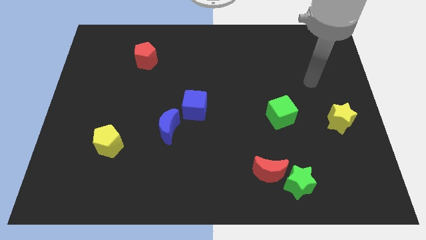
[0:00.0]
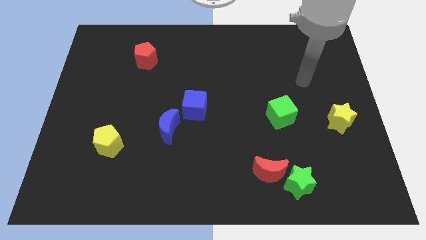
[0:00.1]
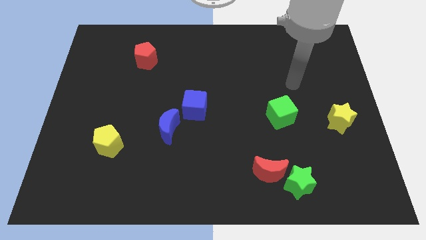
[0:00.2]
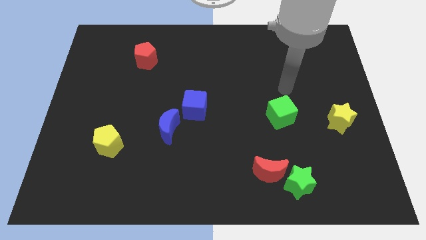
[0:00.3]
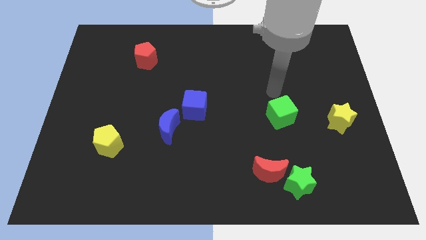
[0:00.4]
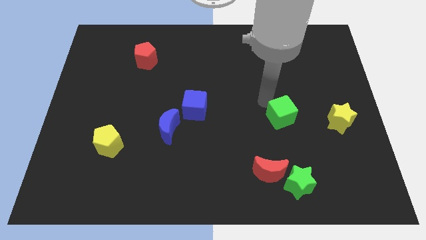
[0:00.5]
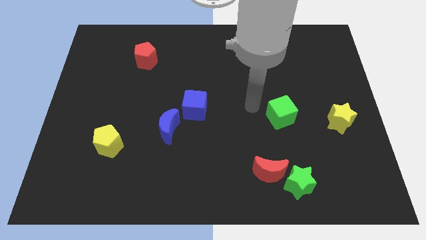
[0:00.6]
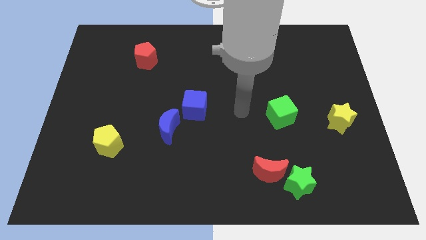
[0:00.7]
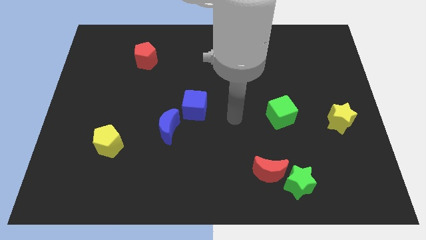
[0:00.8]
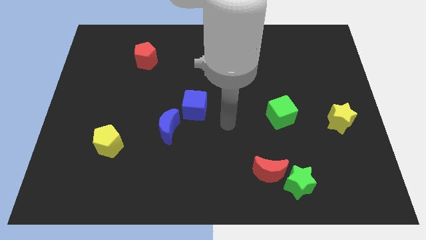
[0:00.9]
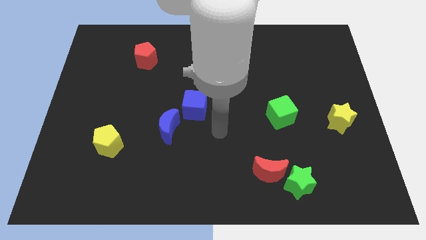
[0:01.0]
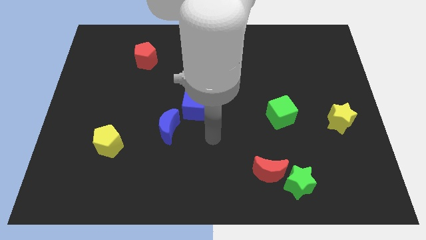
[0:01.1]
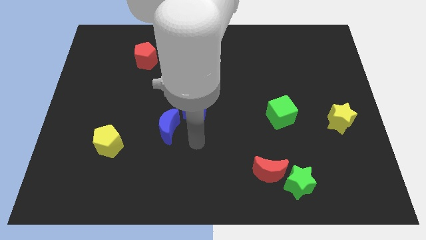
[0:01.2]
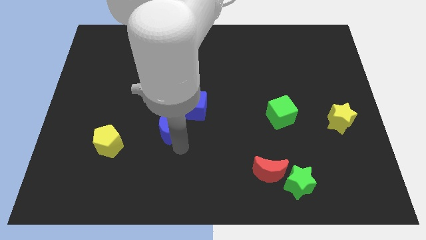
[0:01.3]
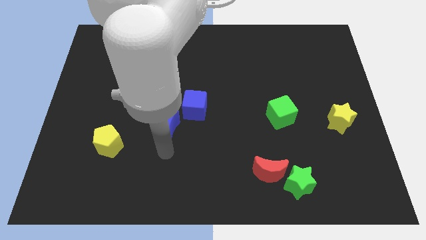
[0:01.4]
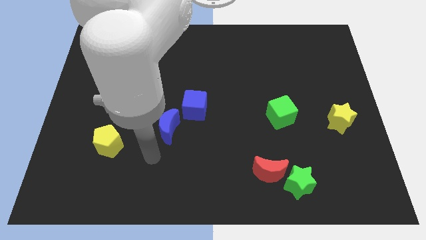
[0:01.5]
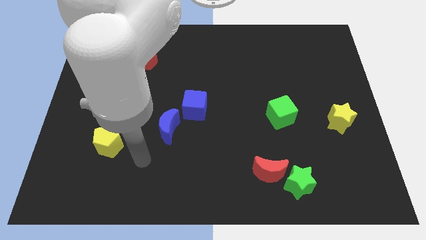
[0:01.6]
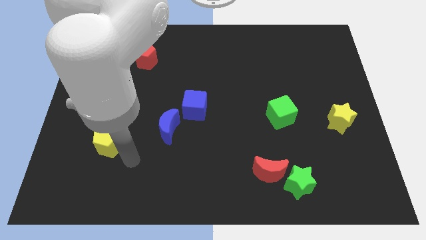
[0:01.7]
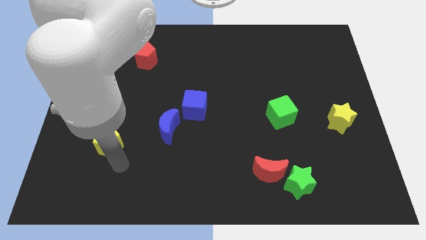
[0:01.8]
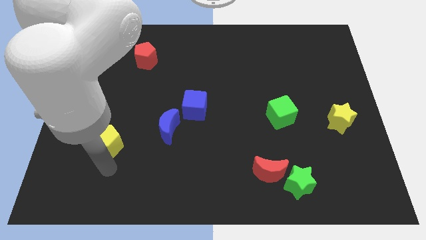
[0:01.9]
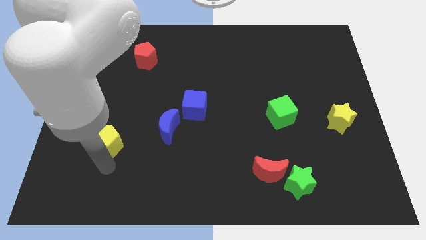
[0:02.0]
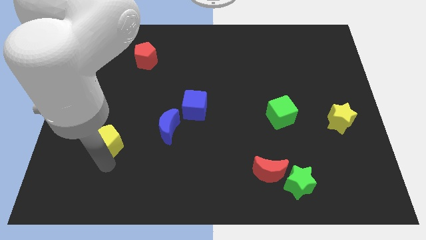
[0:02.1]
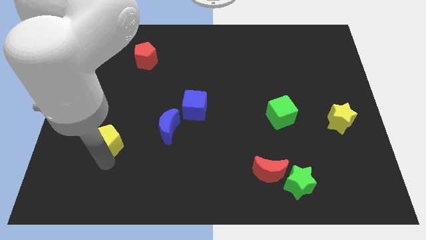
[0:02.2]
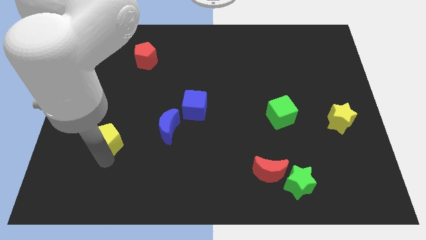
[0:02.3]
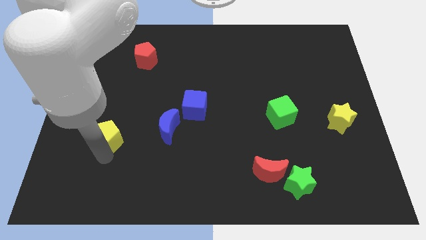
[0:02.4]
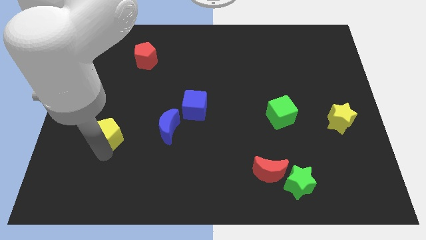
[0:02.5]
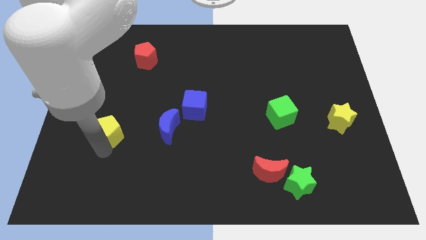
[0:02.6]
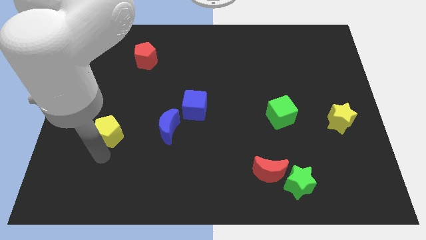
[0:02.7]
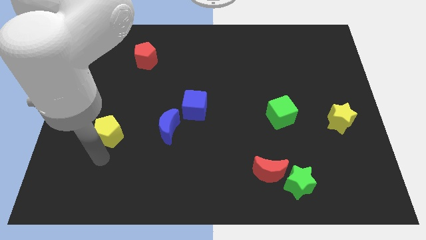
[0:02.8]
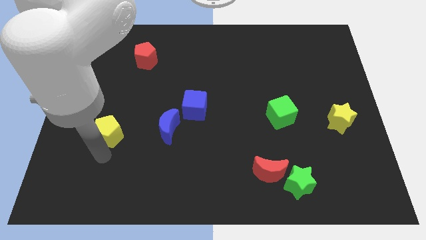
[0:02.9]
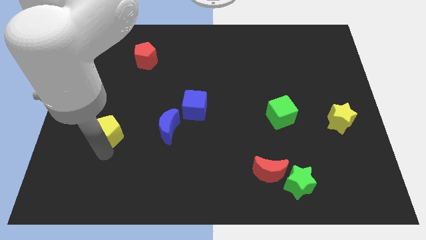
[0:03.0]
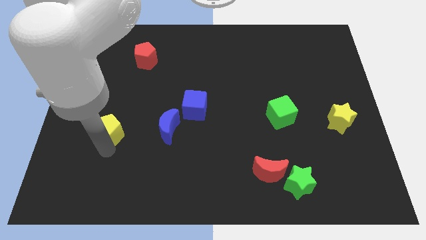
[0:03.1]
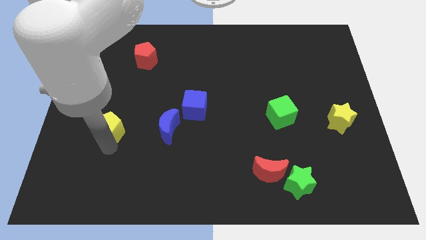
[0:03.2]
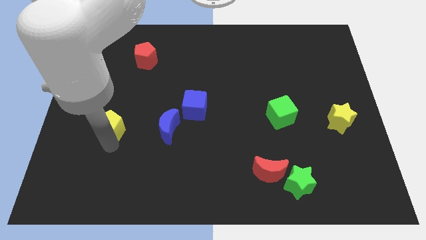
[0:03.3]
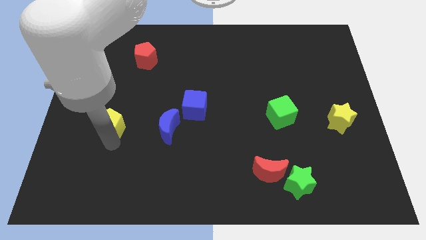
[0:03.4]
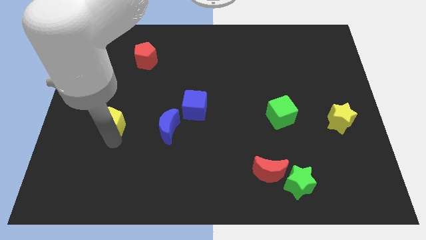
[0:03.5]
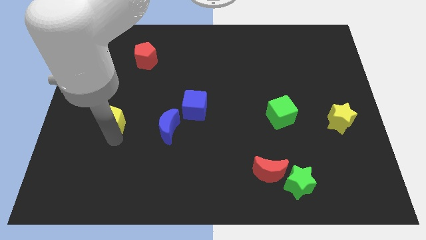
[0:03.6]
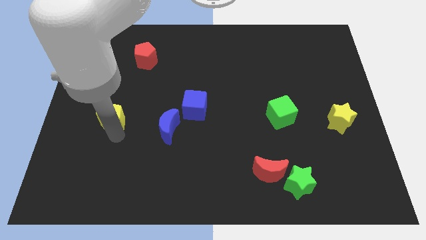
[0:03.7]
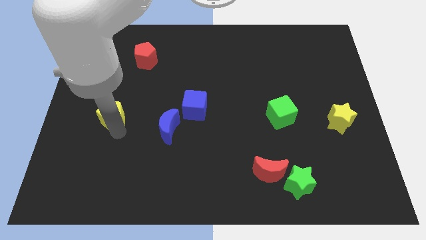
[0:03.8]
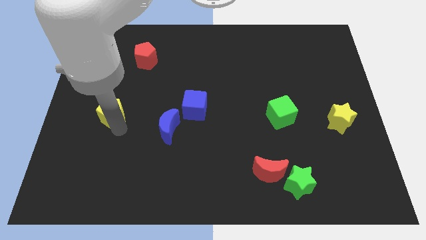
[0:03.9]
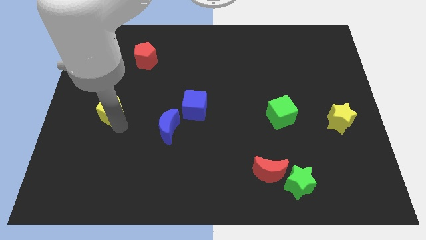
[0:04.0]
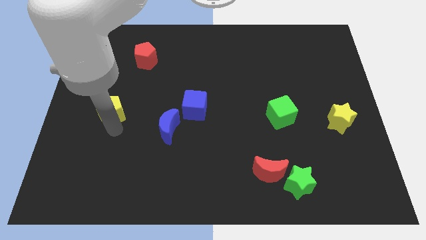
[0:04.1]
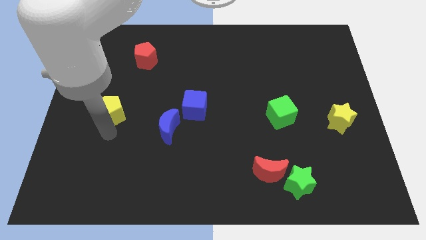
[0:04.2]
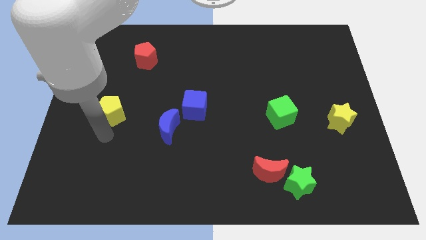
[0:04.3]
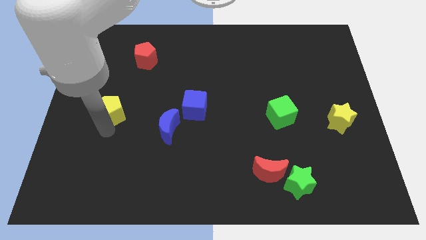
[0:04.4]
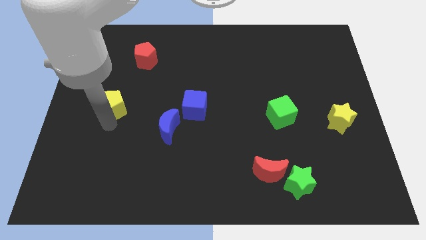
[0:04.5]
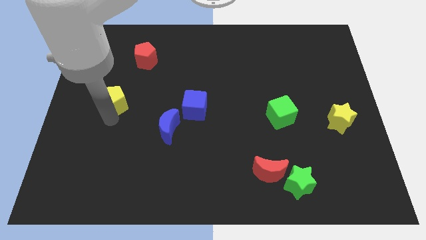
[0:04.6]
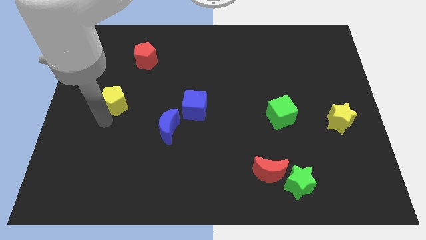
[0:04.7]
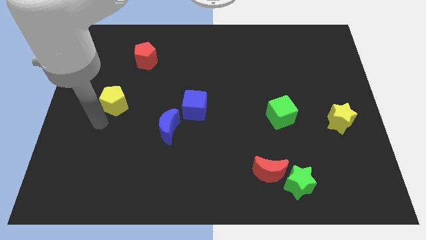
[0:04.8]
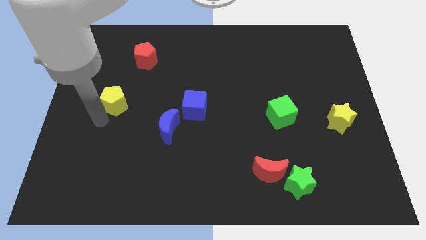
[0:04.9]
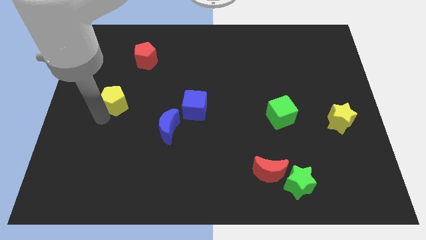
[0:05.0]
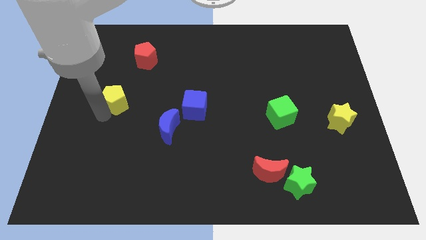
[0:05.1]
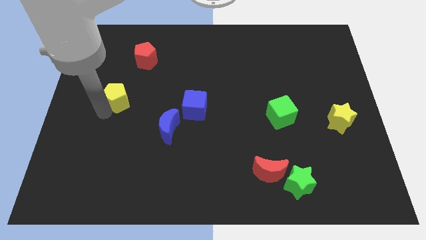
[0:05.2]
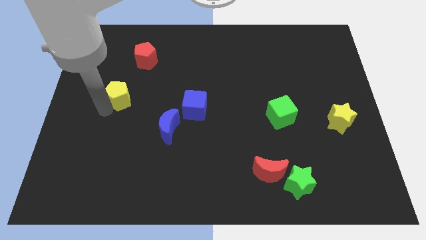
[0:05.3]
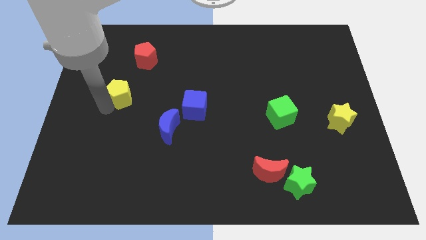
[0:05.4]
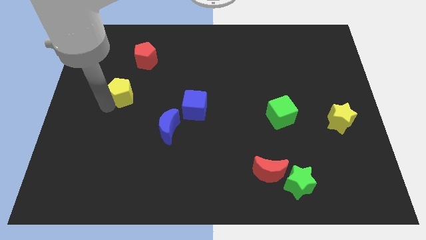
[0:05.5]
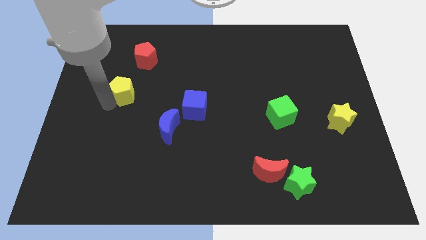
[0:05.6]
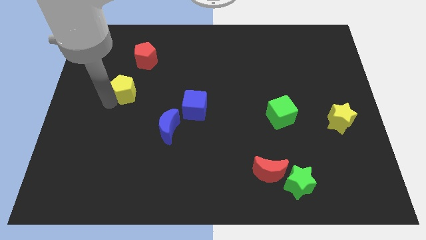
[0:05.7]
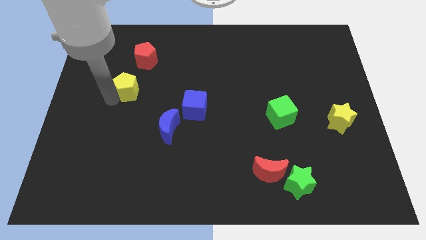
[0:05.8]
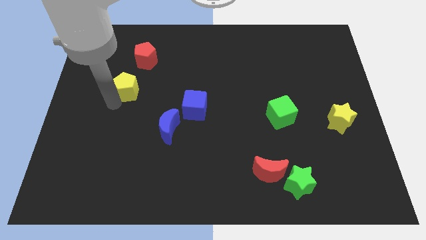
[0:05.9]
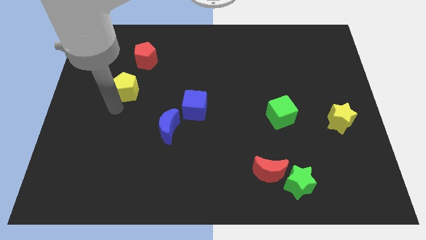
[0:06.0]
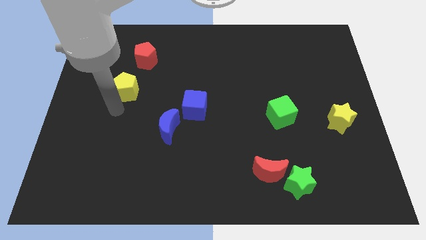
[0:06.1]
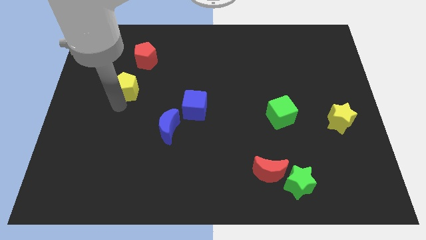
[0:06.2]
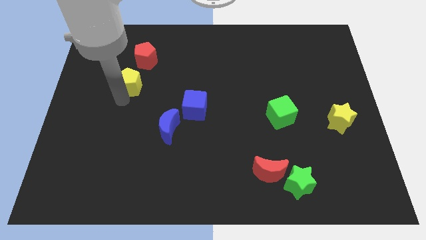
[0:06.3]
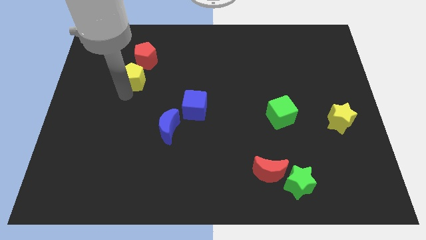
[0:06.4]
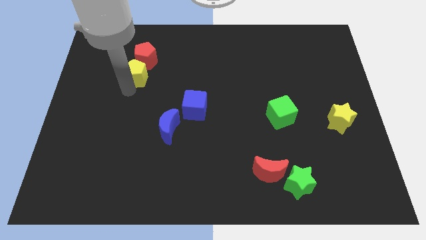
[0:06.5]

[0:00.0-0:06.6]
move the yellow pentagon next to the red pentagon

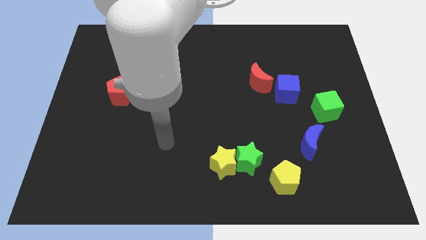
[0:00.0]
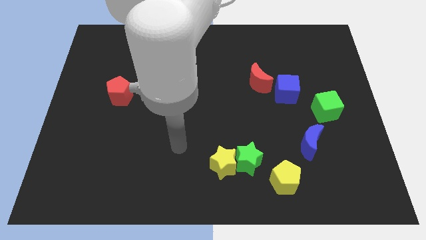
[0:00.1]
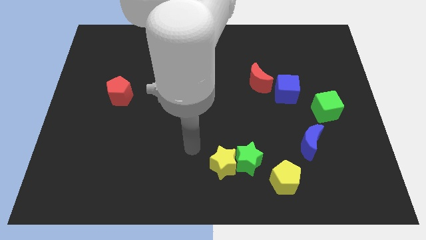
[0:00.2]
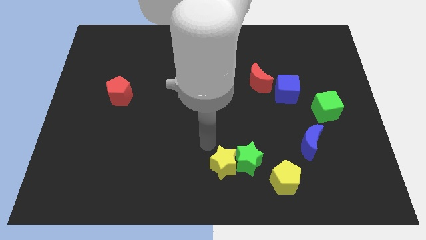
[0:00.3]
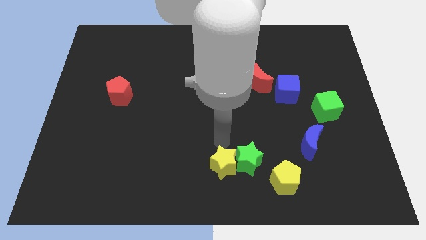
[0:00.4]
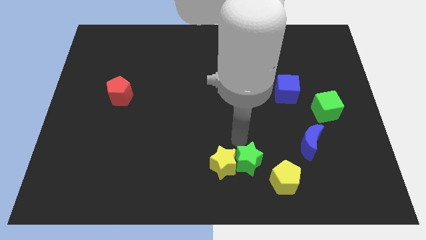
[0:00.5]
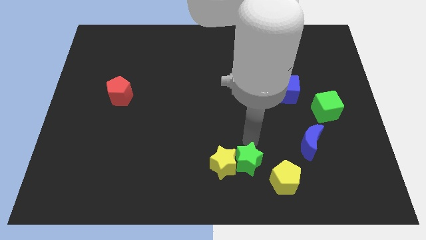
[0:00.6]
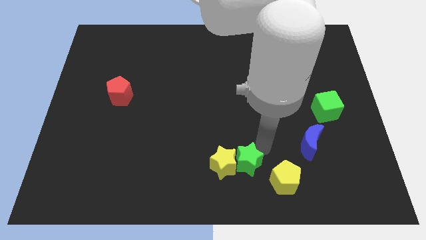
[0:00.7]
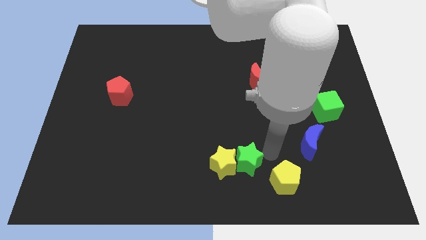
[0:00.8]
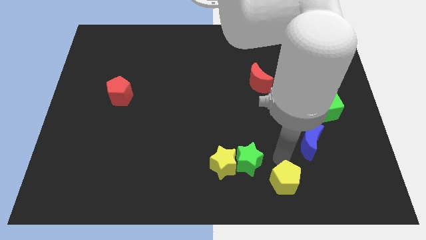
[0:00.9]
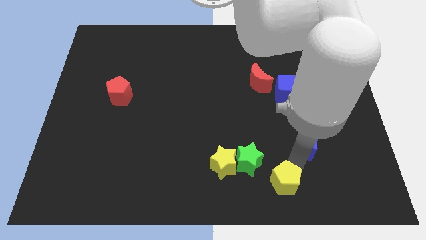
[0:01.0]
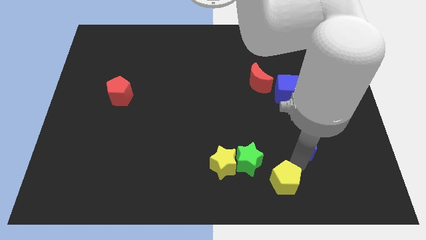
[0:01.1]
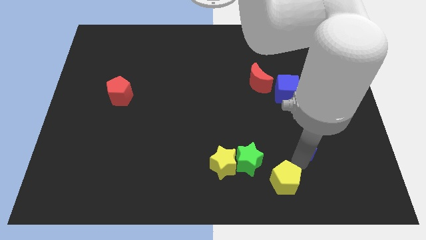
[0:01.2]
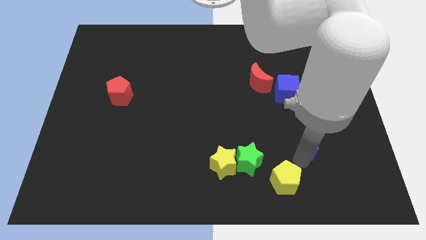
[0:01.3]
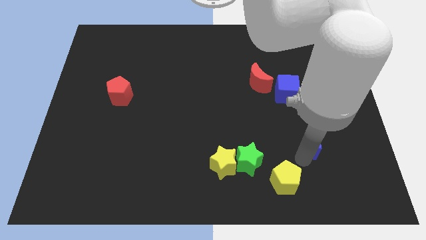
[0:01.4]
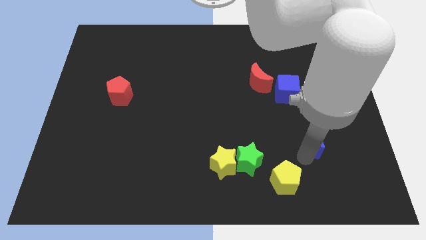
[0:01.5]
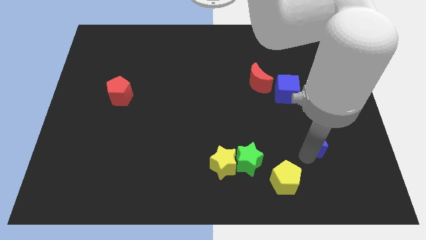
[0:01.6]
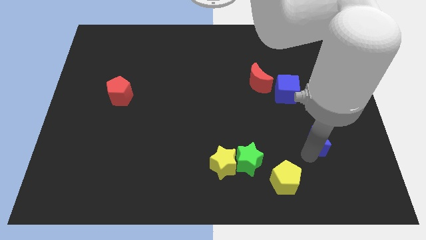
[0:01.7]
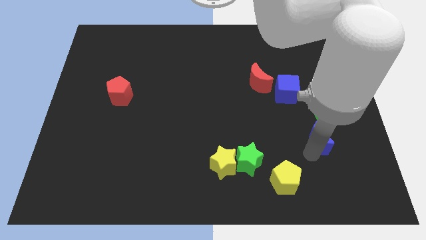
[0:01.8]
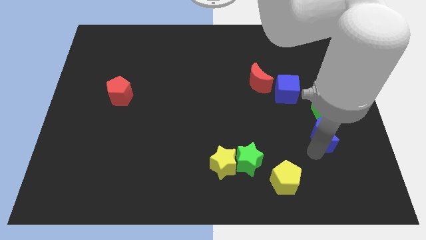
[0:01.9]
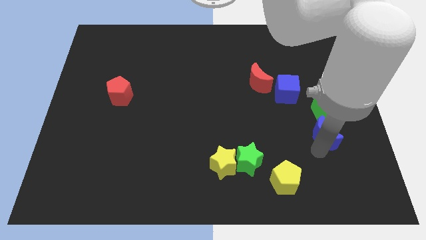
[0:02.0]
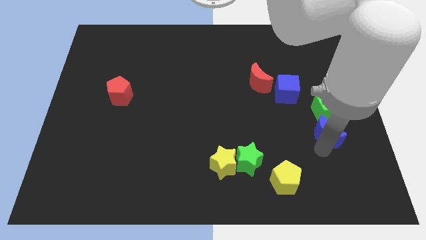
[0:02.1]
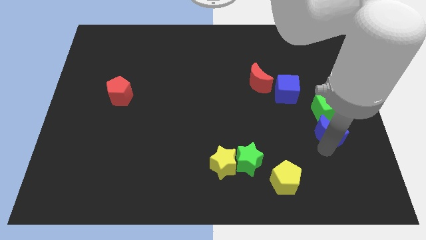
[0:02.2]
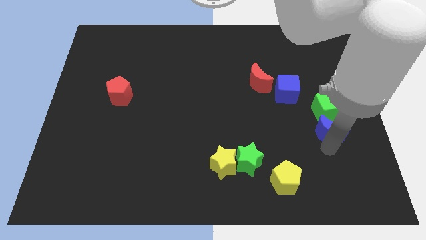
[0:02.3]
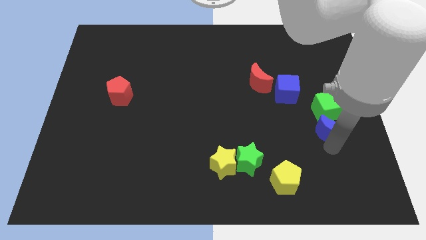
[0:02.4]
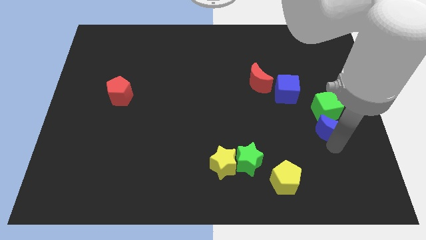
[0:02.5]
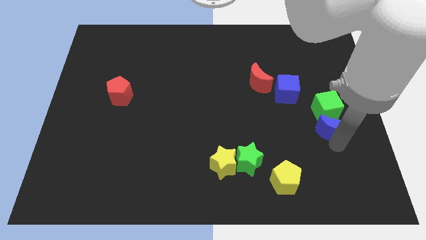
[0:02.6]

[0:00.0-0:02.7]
slide the blue moon next to the green cube
